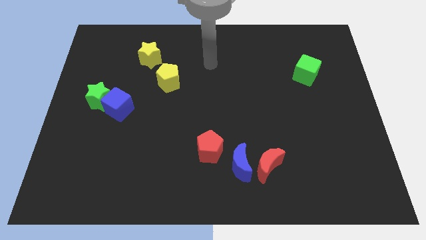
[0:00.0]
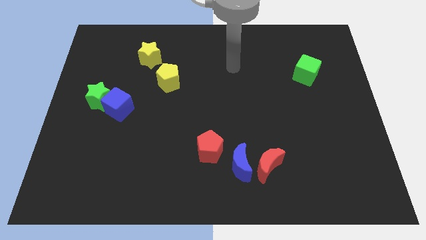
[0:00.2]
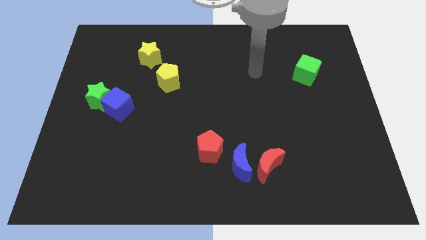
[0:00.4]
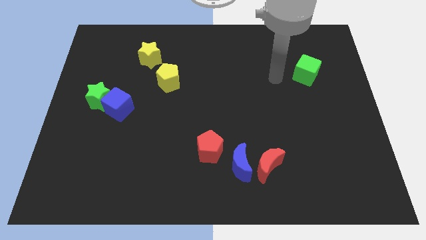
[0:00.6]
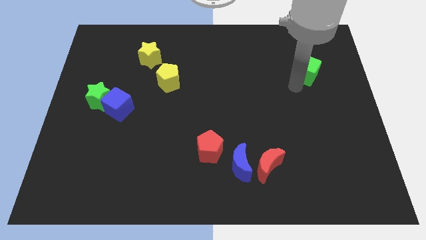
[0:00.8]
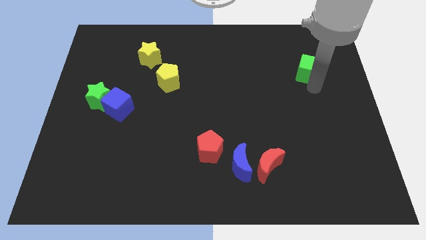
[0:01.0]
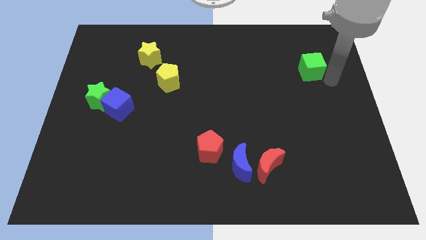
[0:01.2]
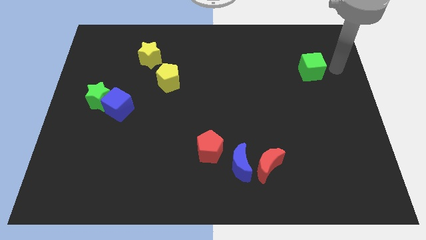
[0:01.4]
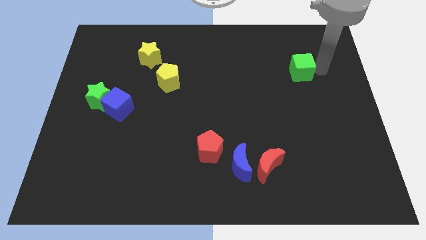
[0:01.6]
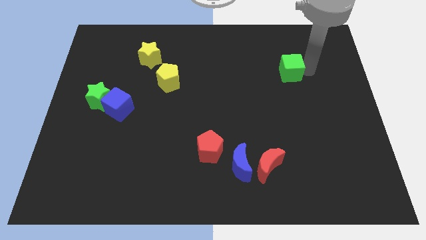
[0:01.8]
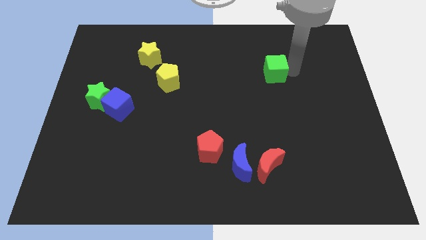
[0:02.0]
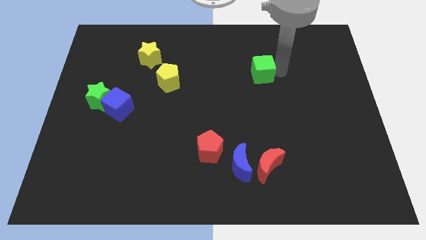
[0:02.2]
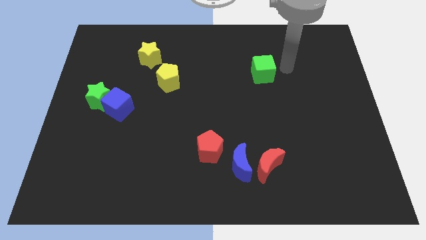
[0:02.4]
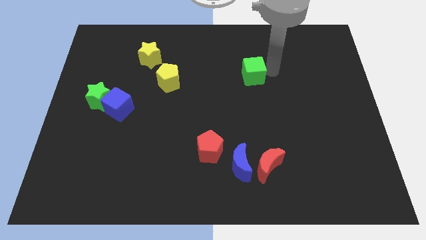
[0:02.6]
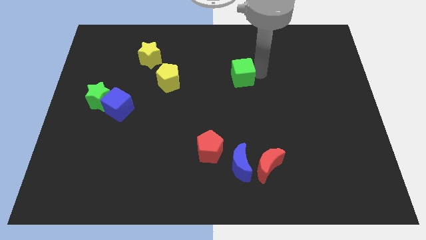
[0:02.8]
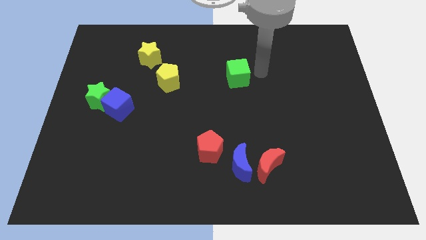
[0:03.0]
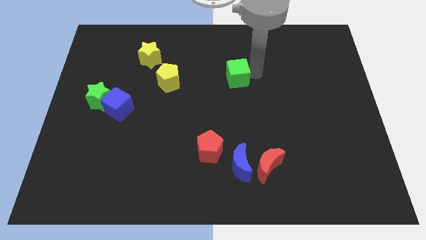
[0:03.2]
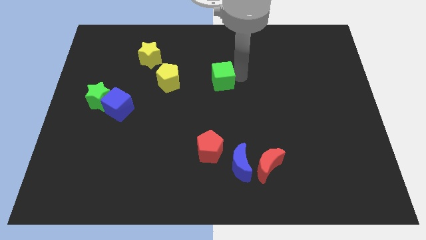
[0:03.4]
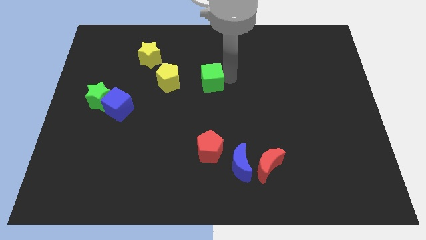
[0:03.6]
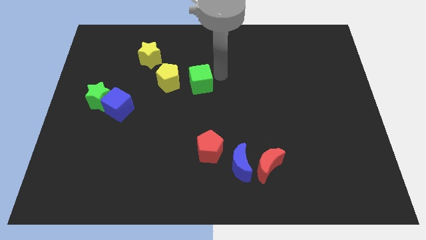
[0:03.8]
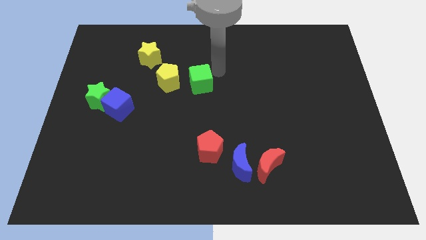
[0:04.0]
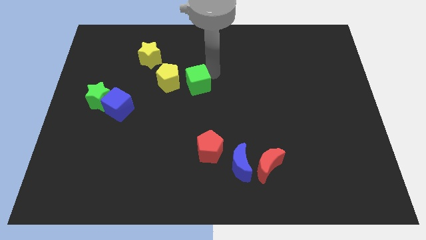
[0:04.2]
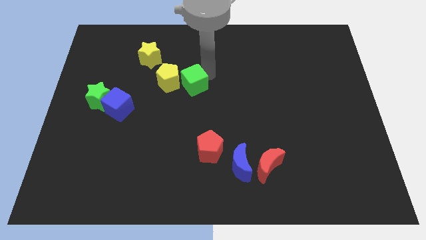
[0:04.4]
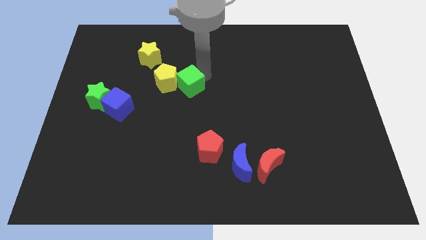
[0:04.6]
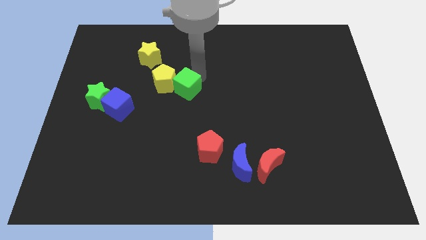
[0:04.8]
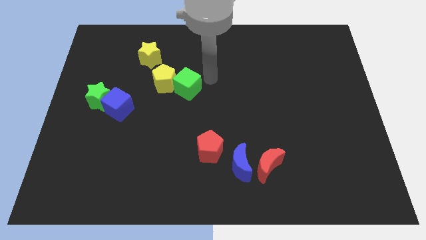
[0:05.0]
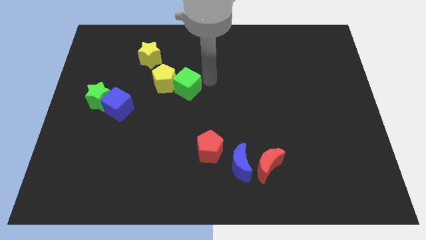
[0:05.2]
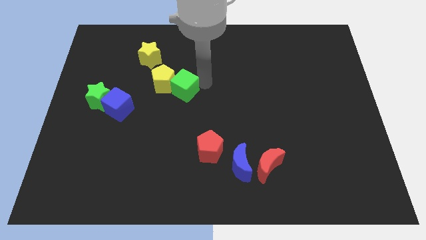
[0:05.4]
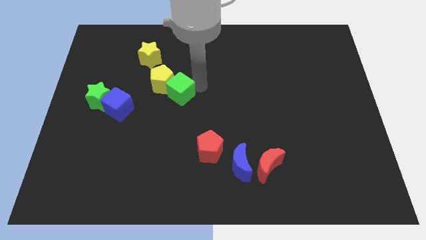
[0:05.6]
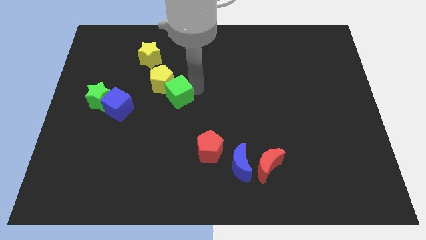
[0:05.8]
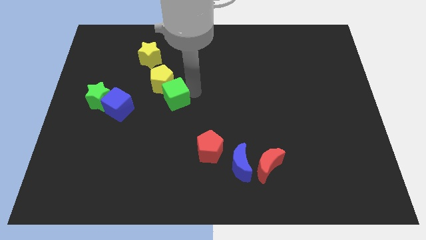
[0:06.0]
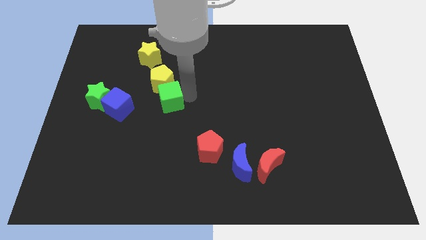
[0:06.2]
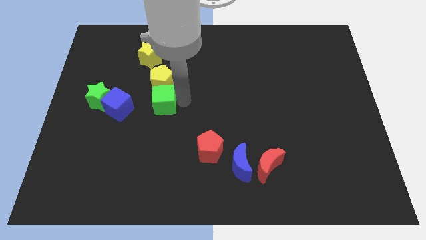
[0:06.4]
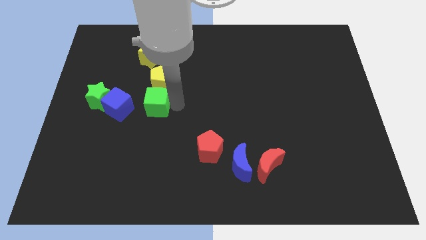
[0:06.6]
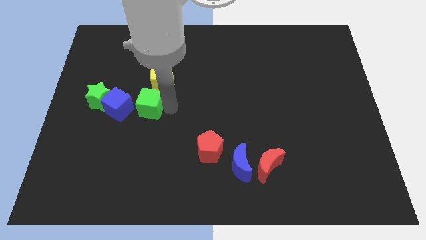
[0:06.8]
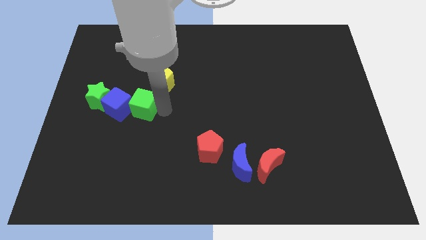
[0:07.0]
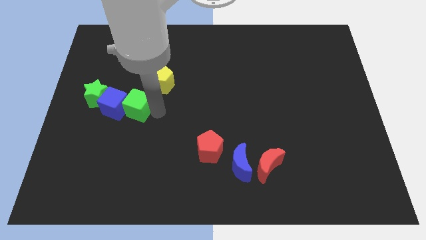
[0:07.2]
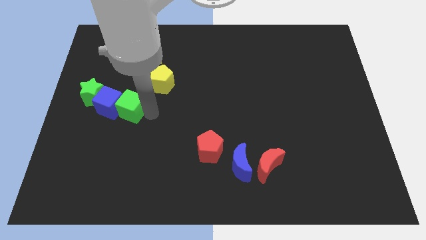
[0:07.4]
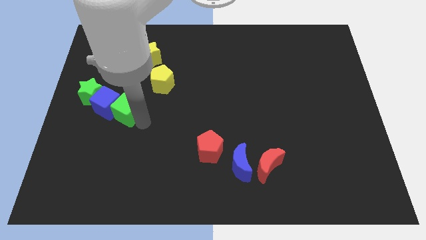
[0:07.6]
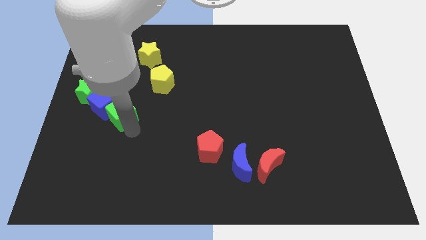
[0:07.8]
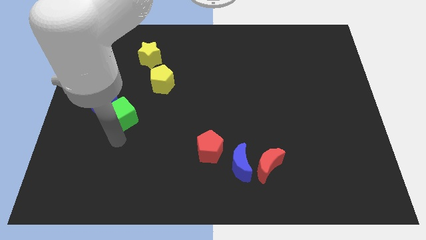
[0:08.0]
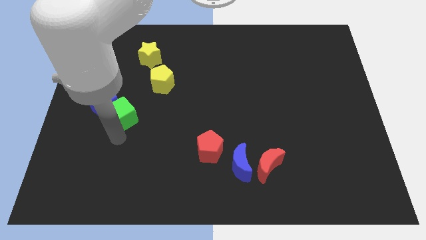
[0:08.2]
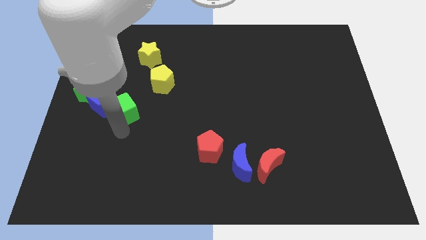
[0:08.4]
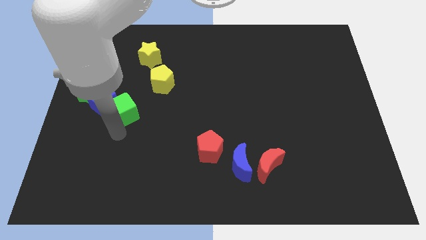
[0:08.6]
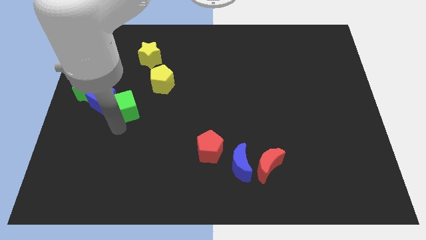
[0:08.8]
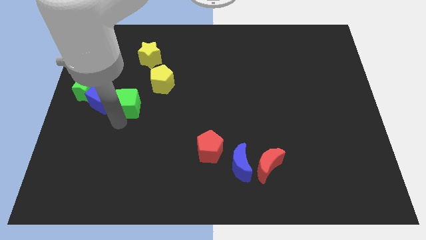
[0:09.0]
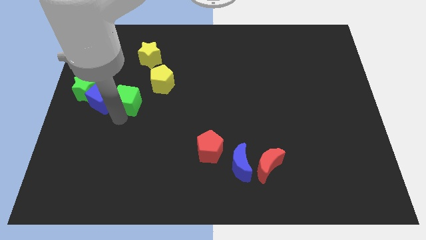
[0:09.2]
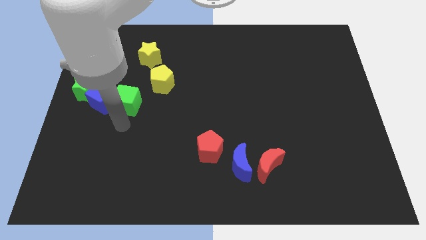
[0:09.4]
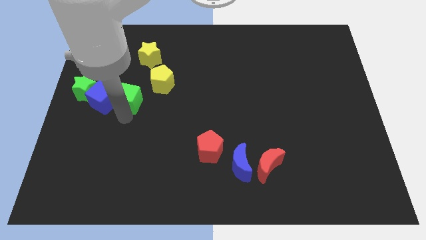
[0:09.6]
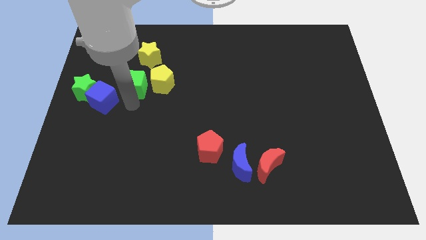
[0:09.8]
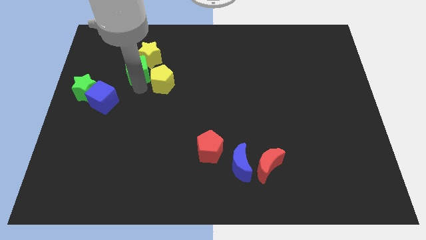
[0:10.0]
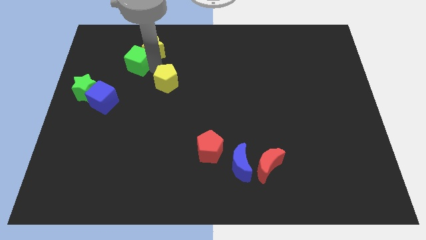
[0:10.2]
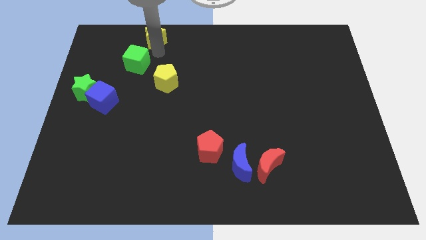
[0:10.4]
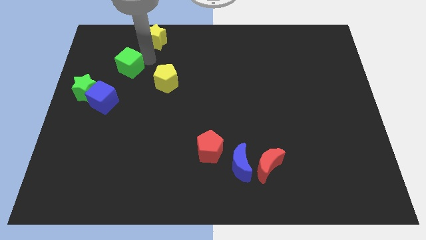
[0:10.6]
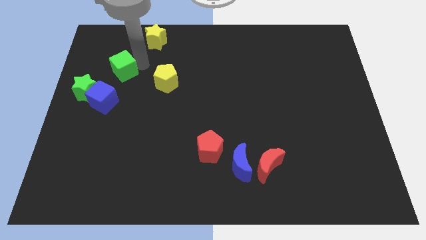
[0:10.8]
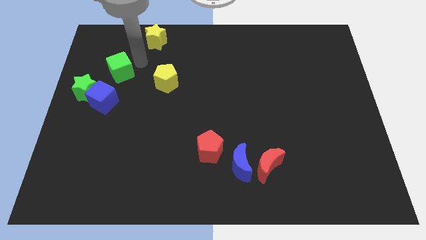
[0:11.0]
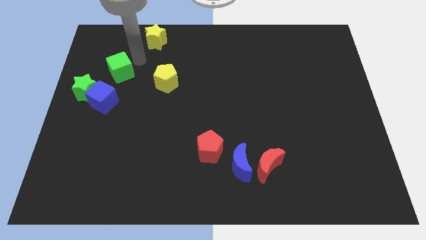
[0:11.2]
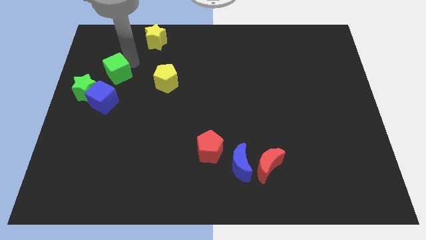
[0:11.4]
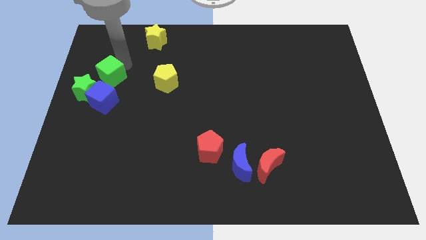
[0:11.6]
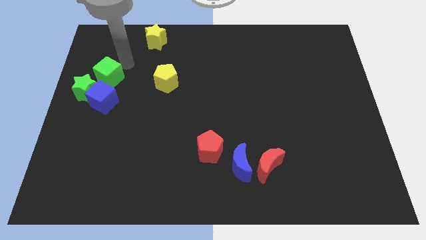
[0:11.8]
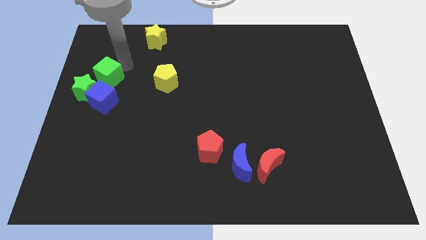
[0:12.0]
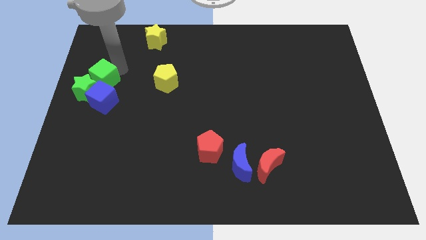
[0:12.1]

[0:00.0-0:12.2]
push the green cube close to the green star
